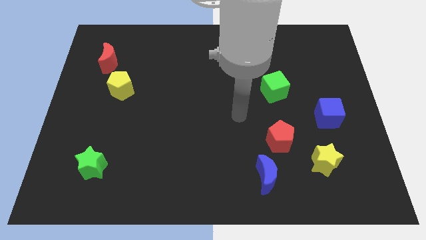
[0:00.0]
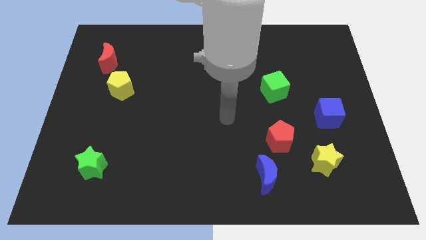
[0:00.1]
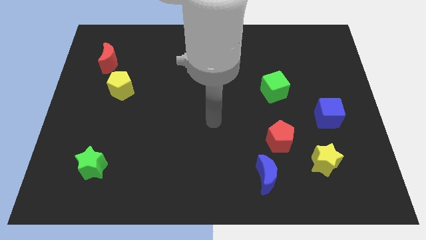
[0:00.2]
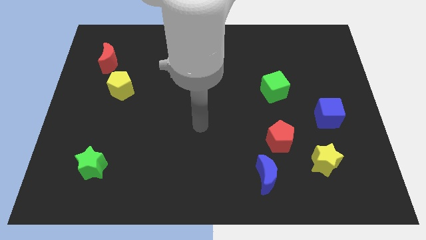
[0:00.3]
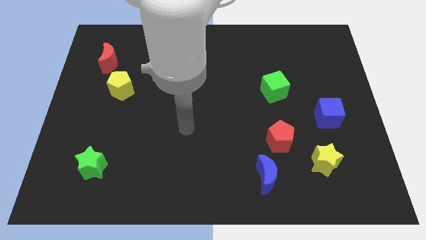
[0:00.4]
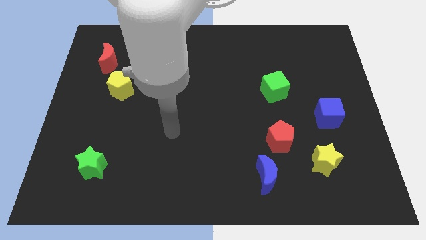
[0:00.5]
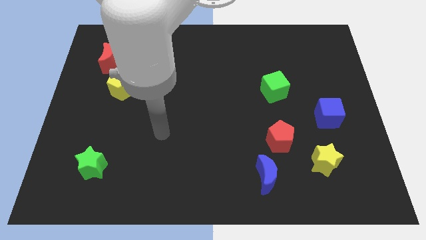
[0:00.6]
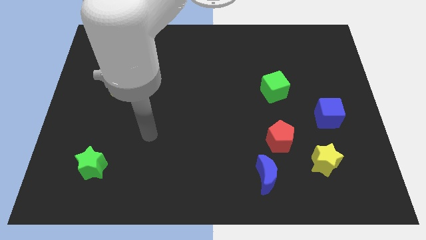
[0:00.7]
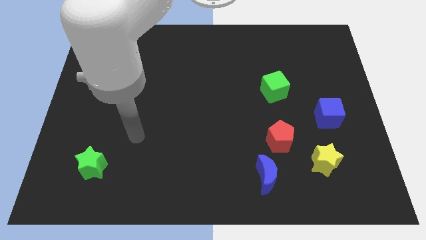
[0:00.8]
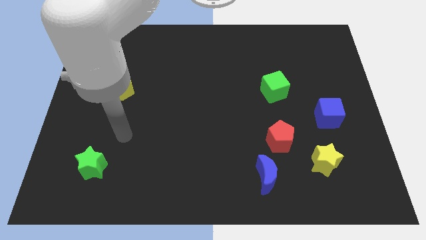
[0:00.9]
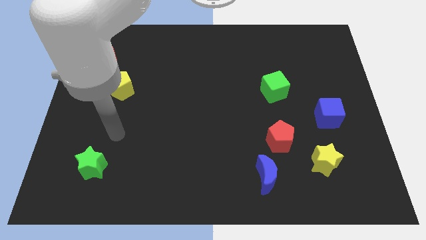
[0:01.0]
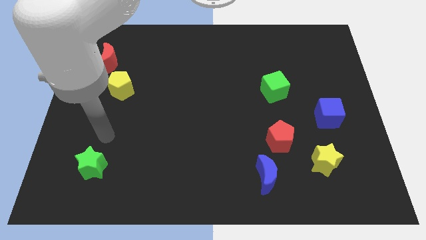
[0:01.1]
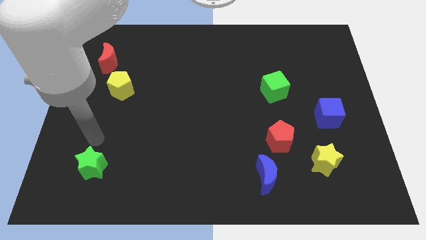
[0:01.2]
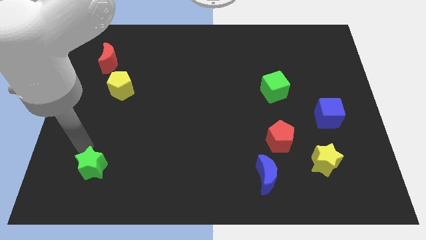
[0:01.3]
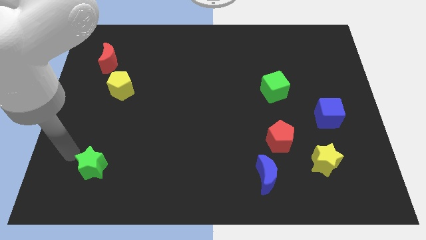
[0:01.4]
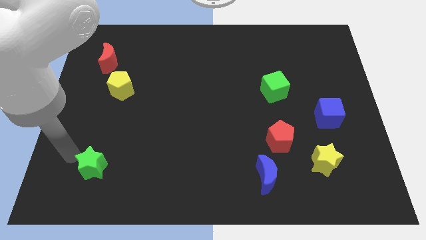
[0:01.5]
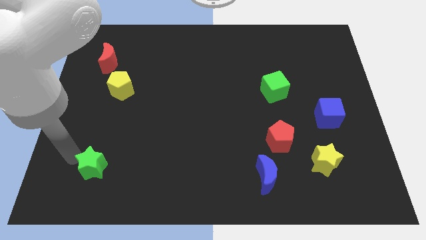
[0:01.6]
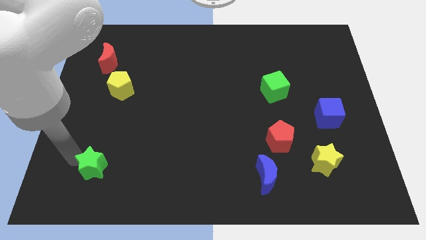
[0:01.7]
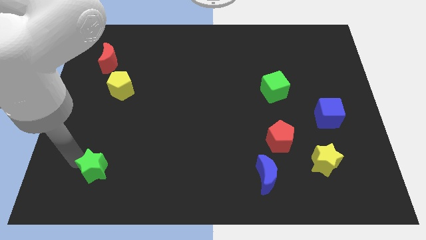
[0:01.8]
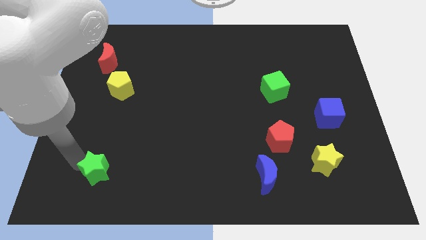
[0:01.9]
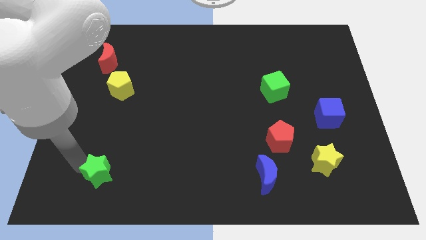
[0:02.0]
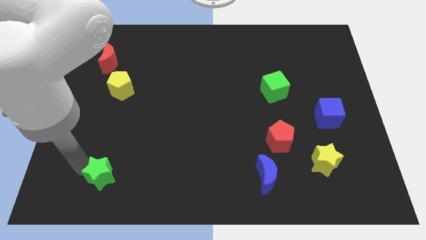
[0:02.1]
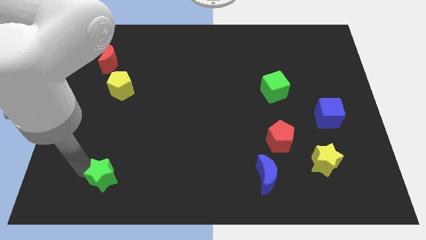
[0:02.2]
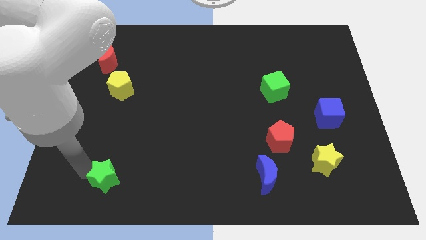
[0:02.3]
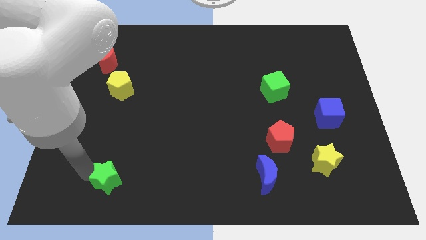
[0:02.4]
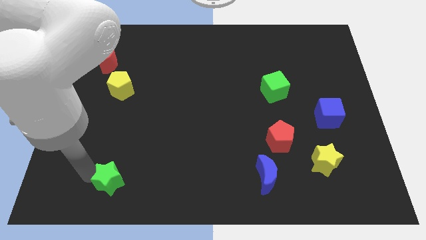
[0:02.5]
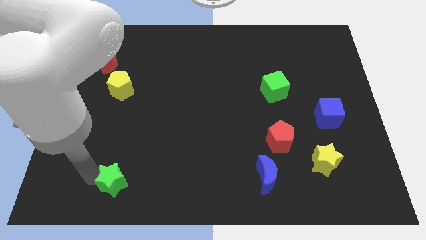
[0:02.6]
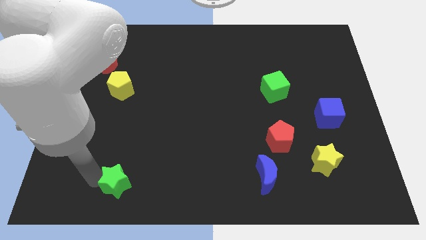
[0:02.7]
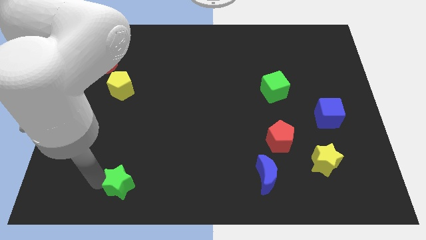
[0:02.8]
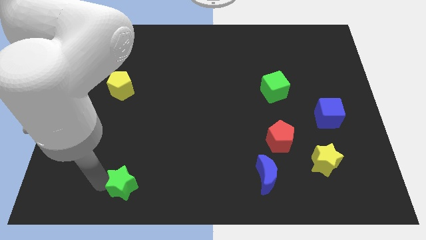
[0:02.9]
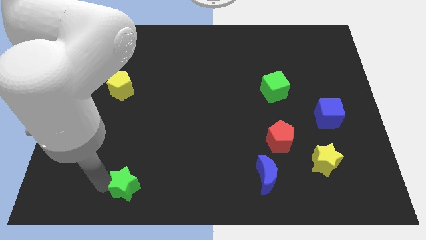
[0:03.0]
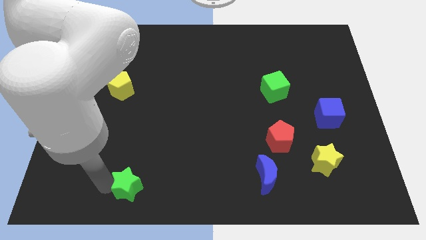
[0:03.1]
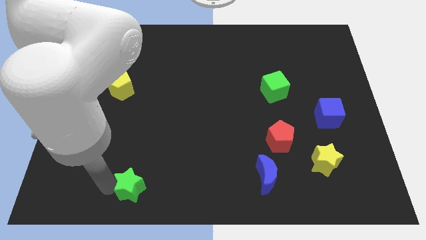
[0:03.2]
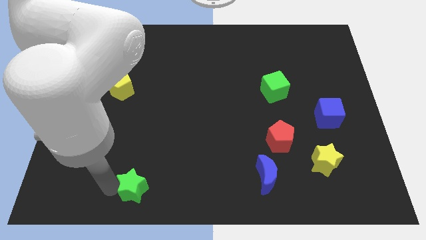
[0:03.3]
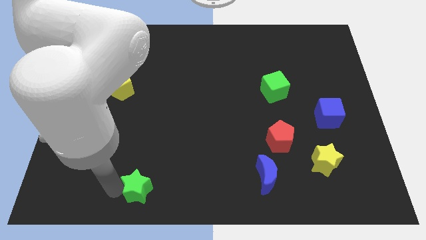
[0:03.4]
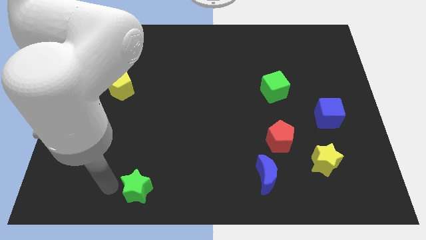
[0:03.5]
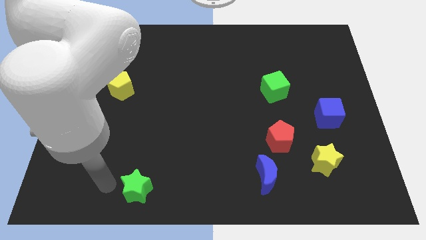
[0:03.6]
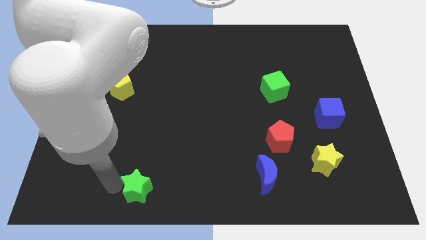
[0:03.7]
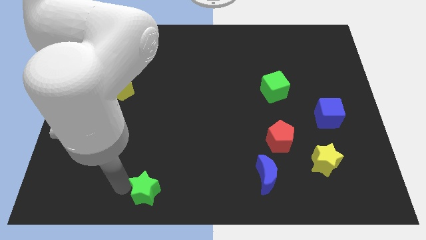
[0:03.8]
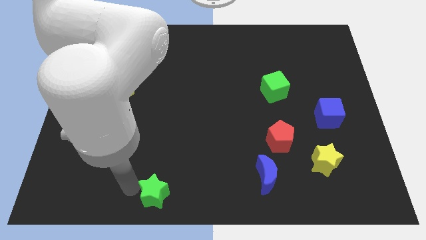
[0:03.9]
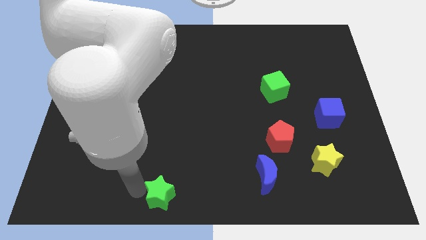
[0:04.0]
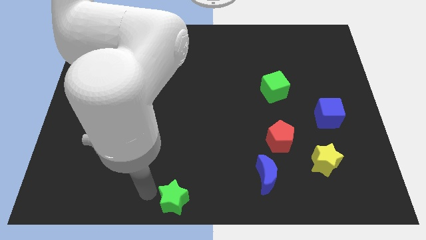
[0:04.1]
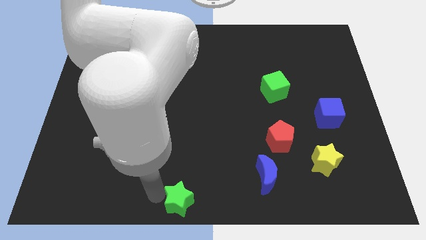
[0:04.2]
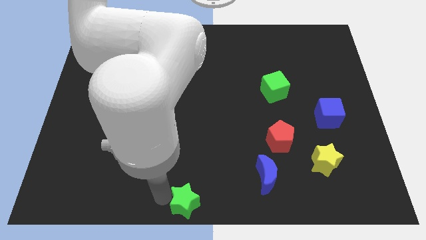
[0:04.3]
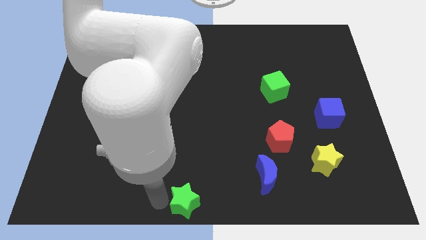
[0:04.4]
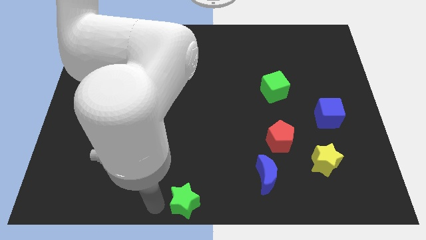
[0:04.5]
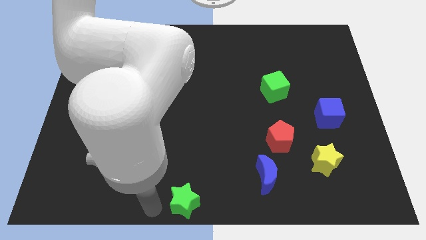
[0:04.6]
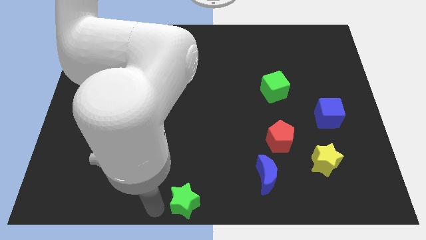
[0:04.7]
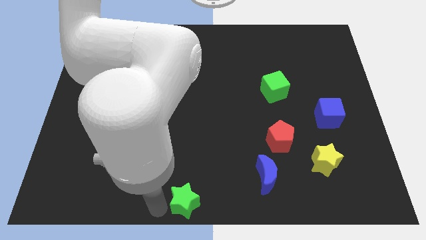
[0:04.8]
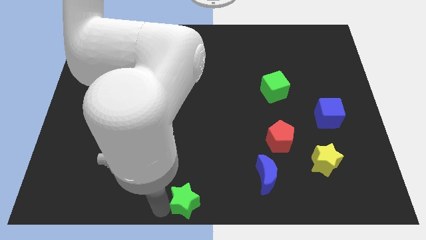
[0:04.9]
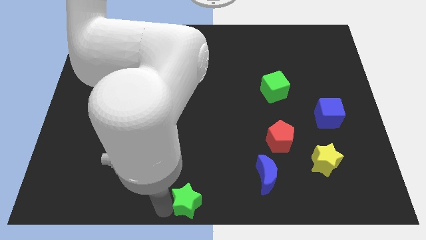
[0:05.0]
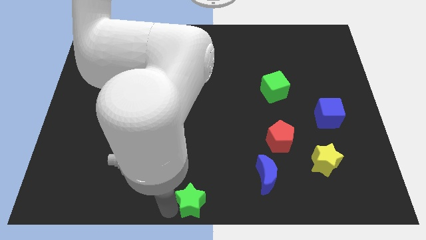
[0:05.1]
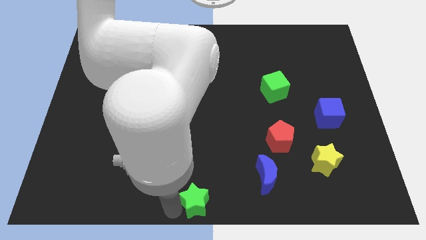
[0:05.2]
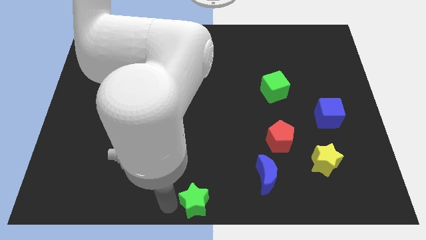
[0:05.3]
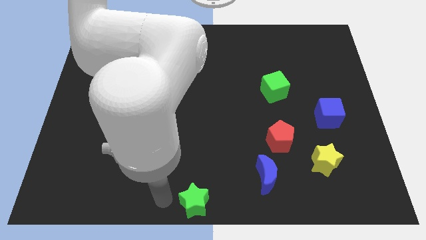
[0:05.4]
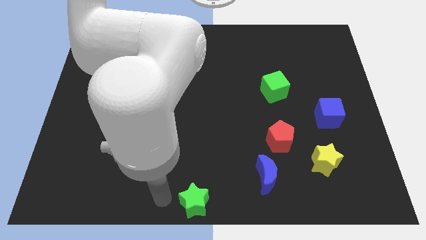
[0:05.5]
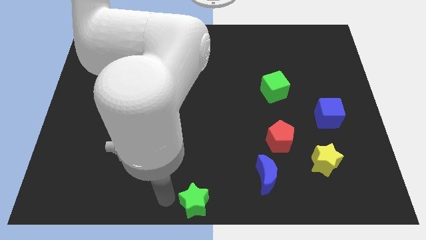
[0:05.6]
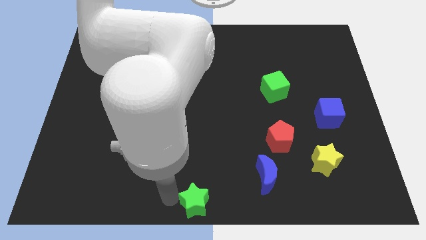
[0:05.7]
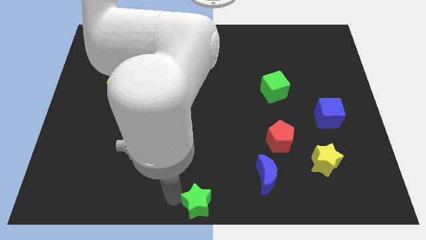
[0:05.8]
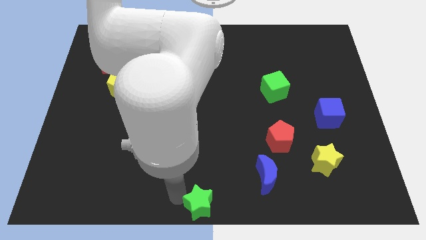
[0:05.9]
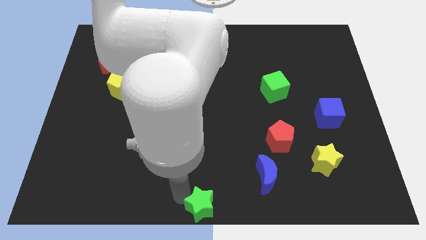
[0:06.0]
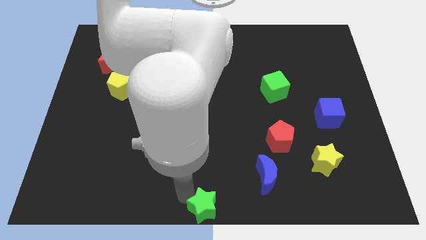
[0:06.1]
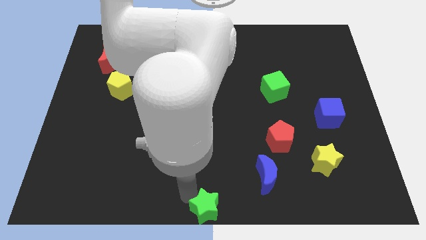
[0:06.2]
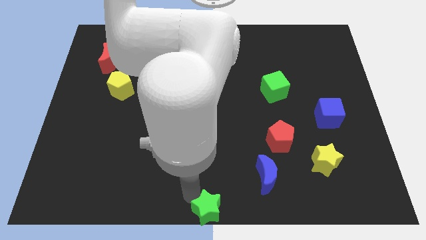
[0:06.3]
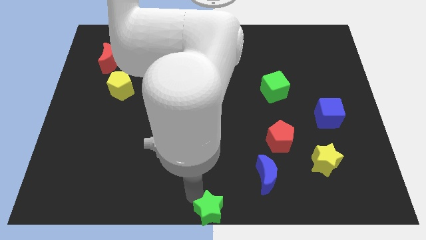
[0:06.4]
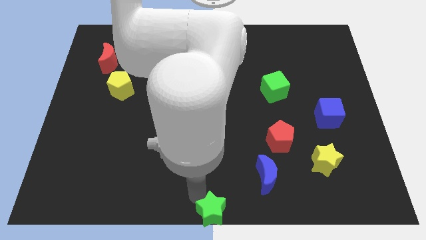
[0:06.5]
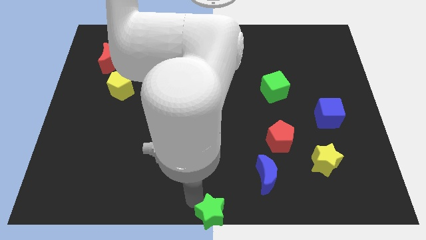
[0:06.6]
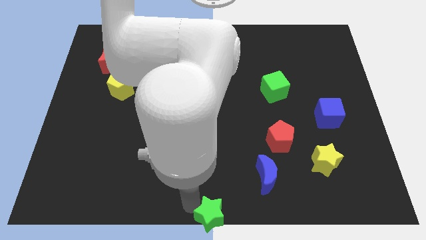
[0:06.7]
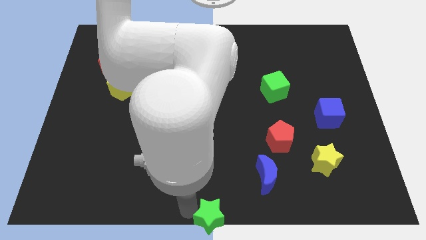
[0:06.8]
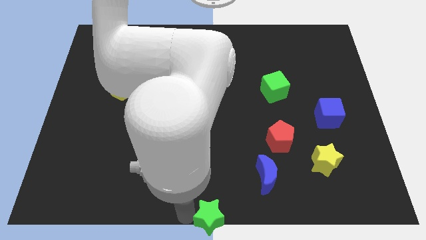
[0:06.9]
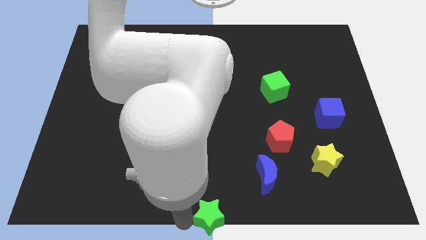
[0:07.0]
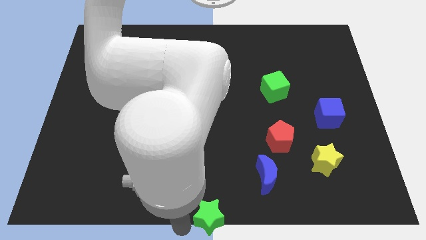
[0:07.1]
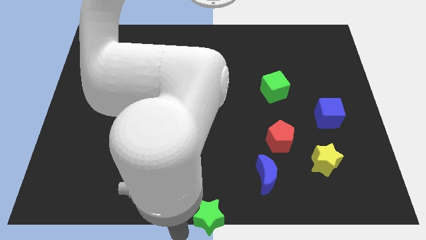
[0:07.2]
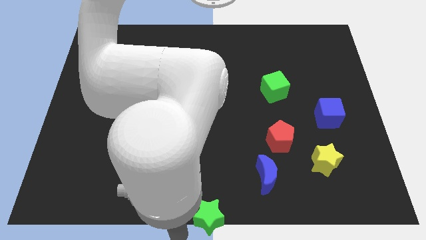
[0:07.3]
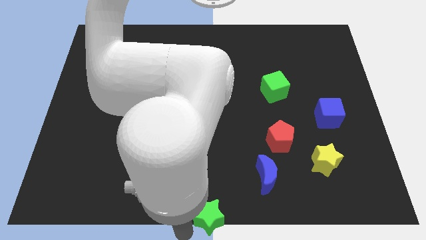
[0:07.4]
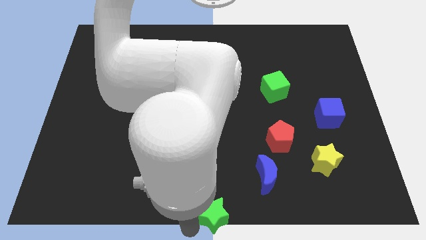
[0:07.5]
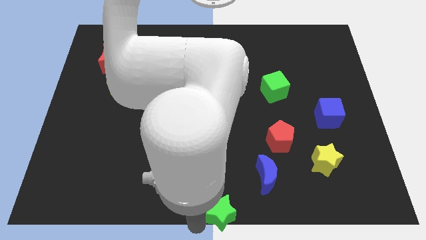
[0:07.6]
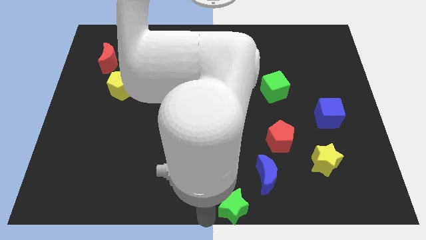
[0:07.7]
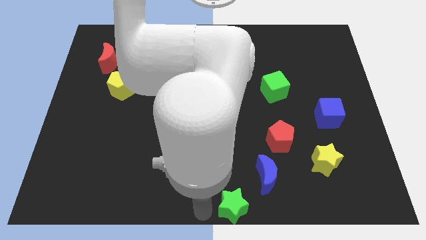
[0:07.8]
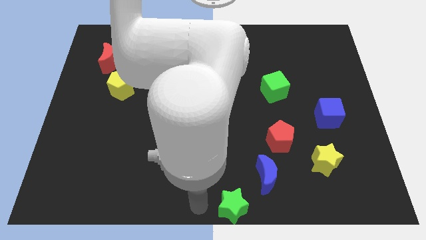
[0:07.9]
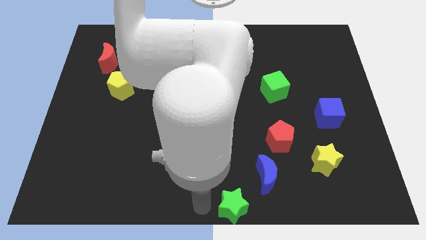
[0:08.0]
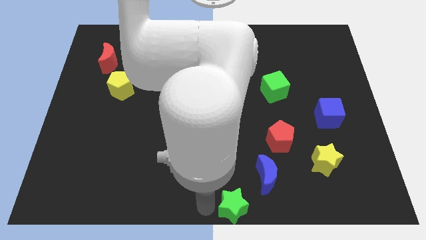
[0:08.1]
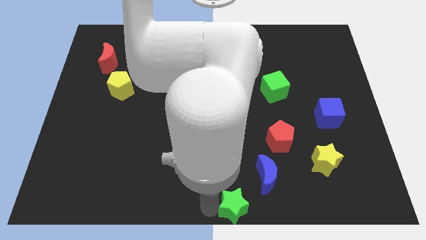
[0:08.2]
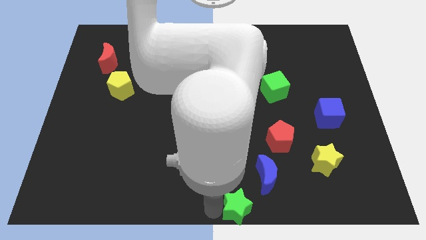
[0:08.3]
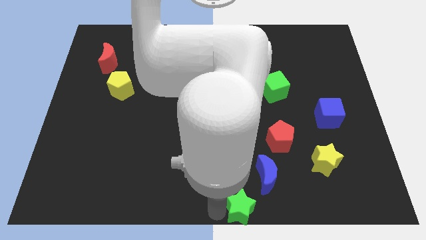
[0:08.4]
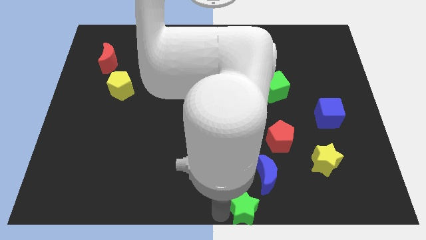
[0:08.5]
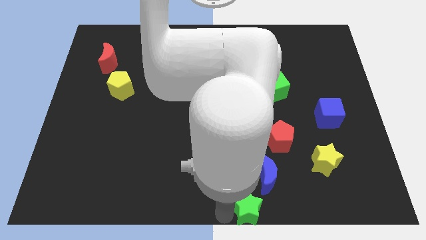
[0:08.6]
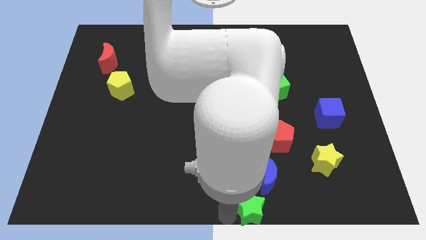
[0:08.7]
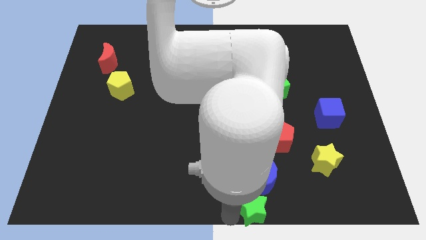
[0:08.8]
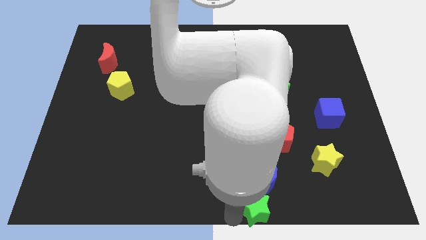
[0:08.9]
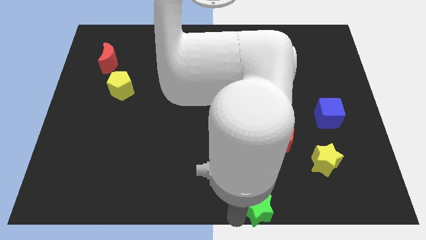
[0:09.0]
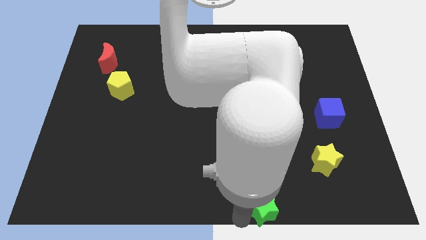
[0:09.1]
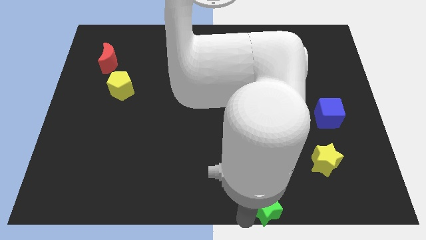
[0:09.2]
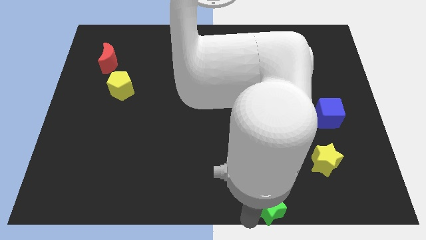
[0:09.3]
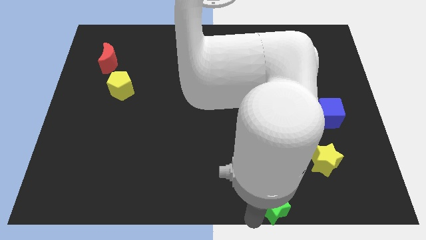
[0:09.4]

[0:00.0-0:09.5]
slide the green star to the bottom side of the red pentagon
